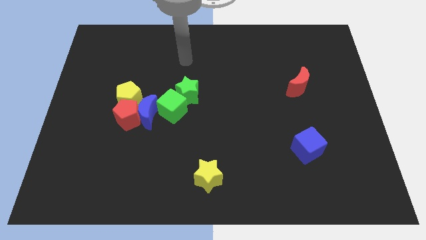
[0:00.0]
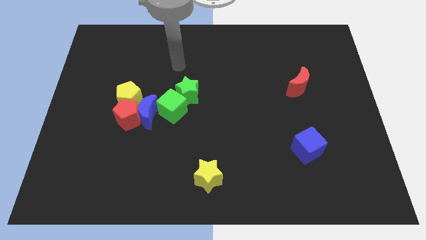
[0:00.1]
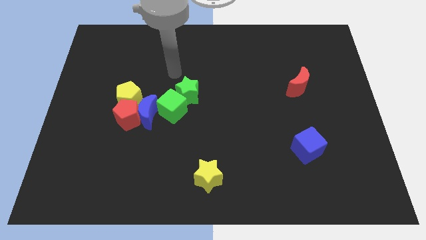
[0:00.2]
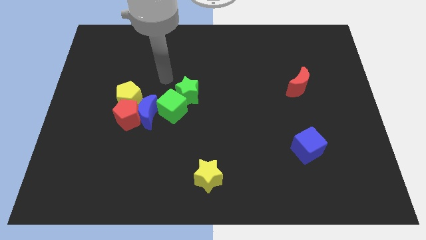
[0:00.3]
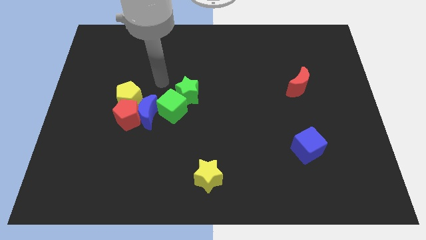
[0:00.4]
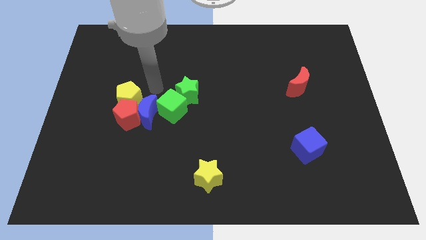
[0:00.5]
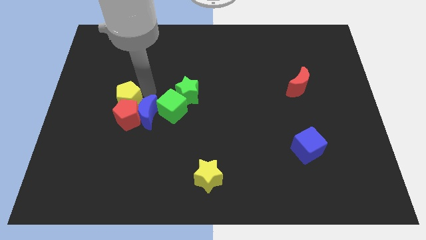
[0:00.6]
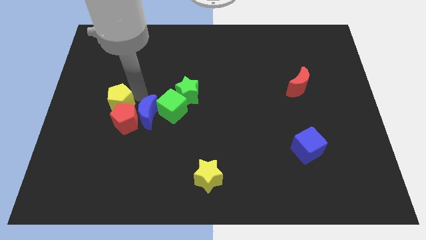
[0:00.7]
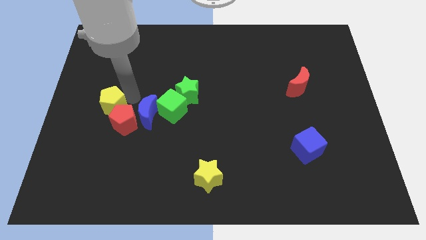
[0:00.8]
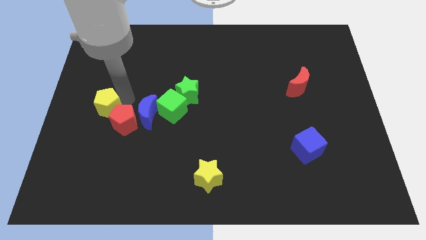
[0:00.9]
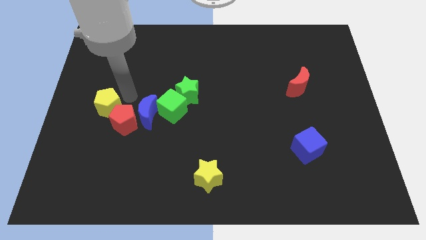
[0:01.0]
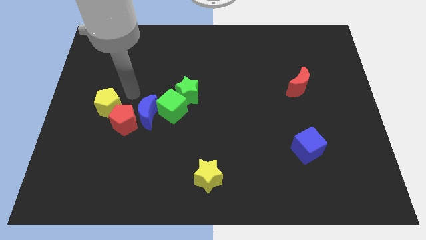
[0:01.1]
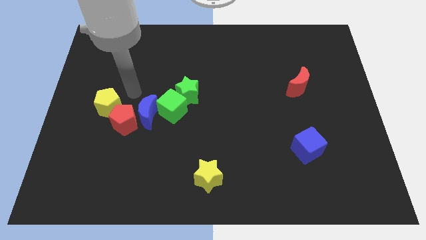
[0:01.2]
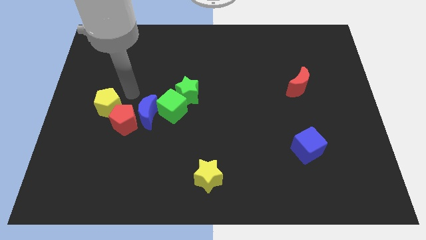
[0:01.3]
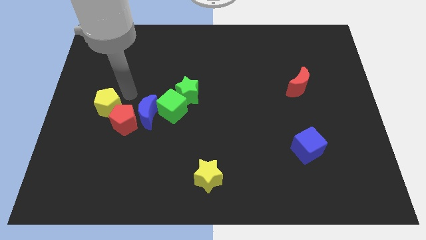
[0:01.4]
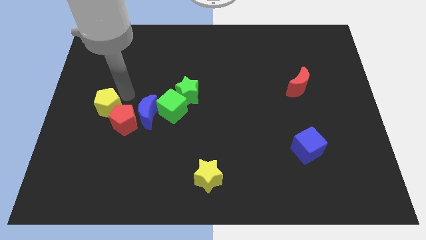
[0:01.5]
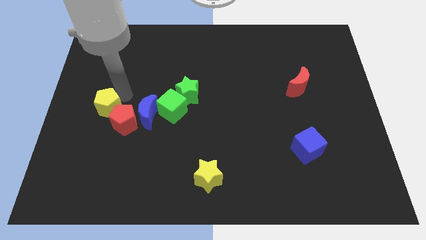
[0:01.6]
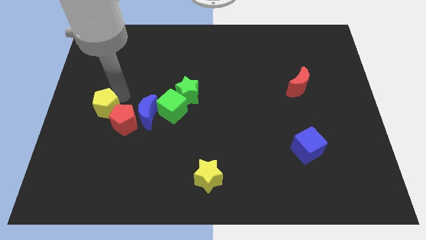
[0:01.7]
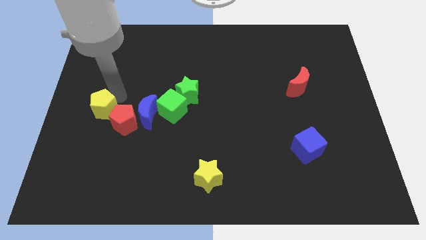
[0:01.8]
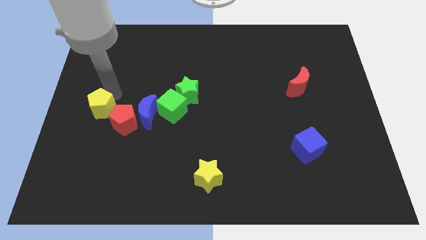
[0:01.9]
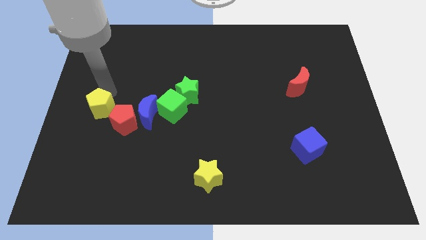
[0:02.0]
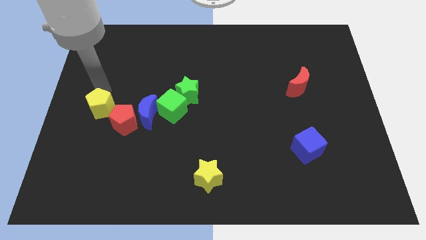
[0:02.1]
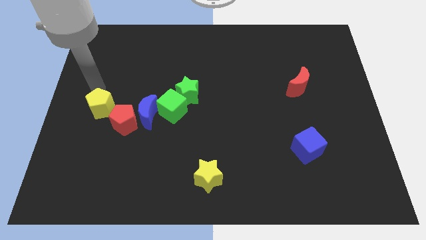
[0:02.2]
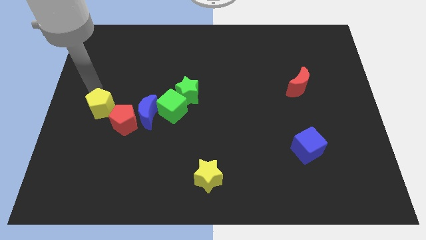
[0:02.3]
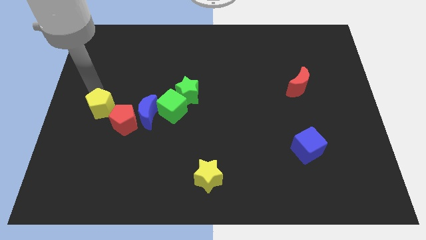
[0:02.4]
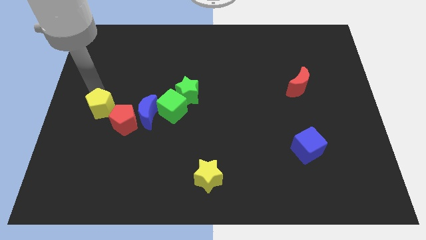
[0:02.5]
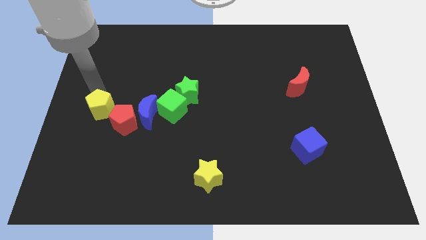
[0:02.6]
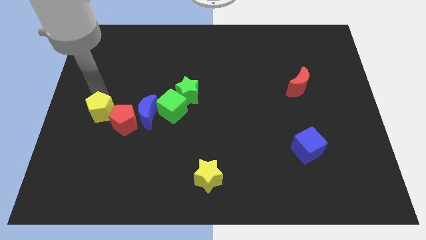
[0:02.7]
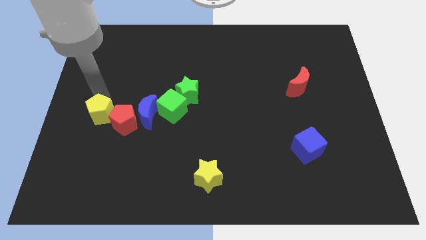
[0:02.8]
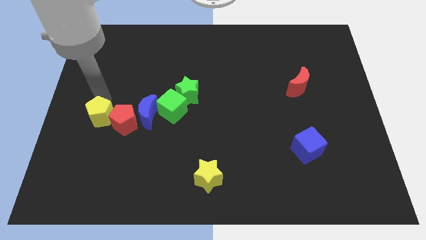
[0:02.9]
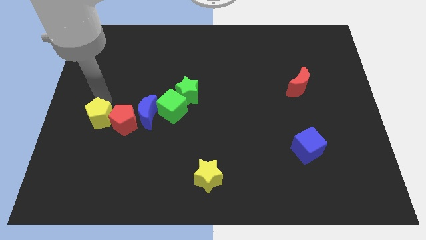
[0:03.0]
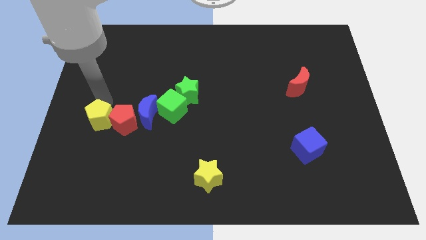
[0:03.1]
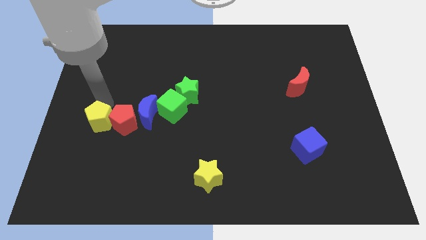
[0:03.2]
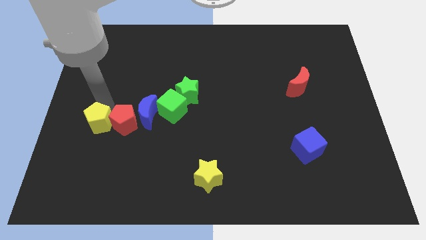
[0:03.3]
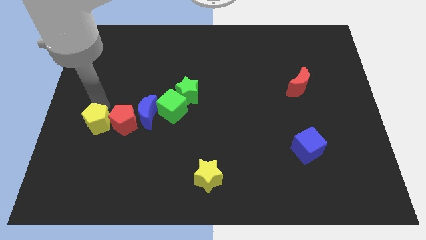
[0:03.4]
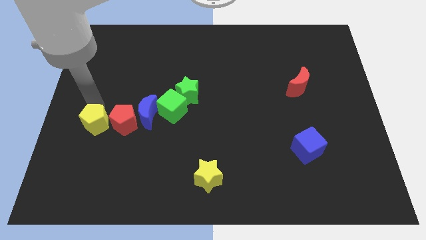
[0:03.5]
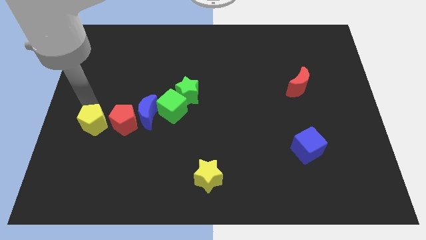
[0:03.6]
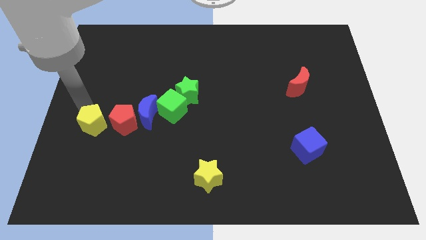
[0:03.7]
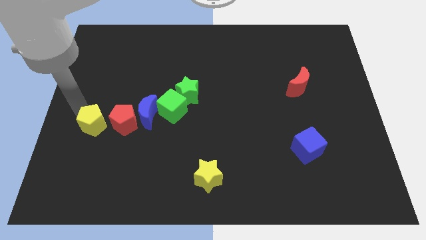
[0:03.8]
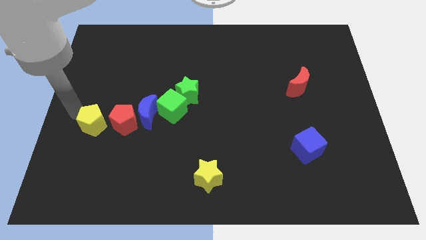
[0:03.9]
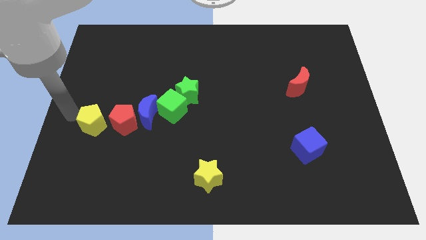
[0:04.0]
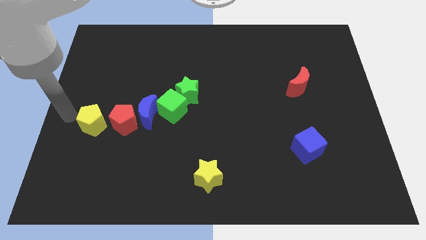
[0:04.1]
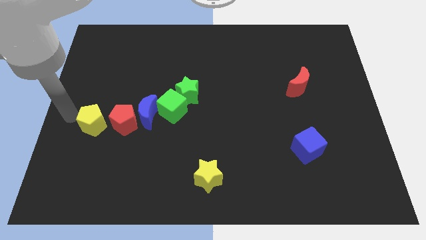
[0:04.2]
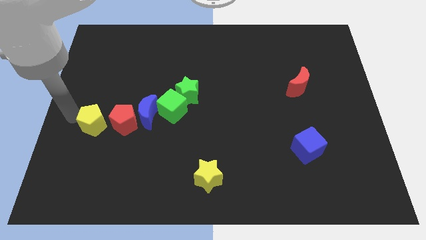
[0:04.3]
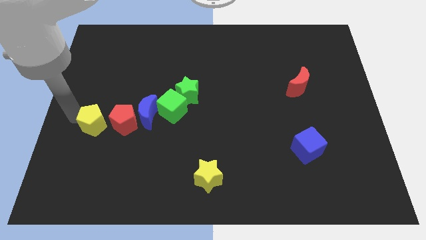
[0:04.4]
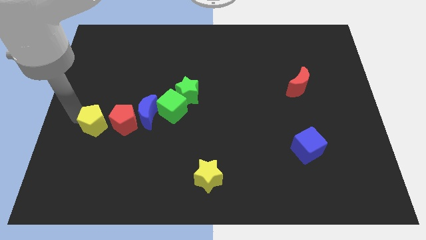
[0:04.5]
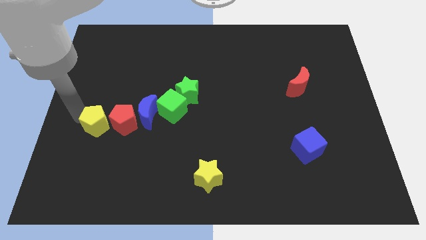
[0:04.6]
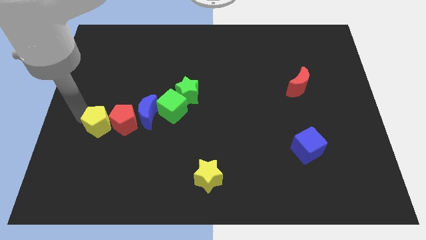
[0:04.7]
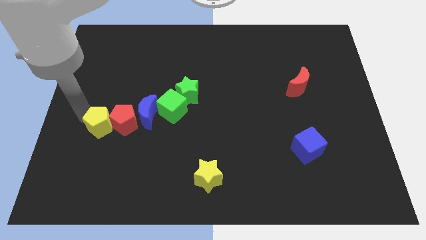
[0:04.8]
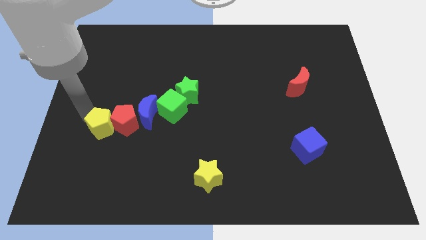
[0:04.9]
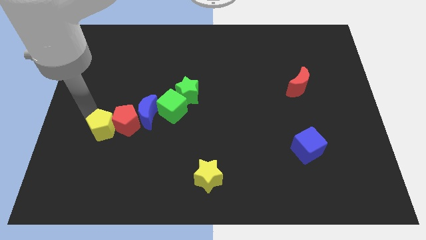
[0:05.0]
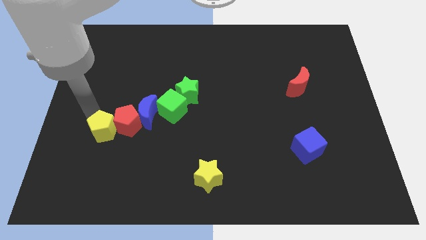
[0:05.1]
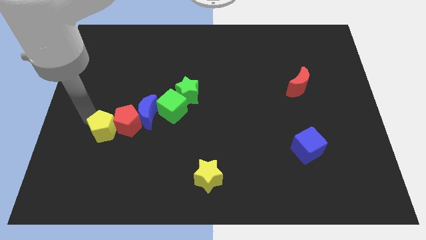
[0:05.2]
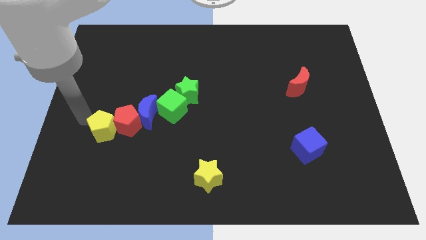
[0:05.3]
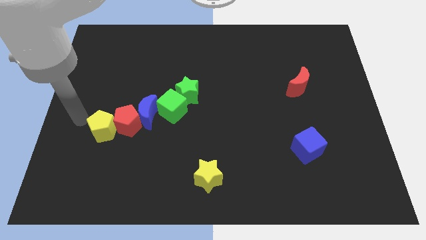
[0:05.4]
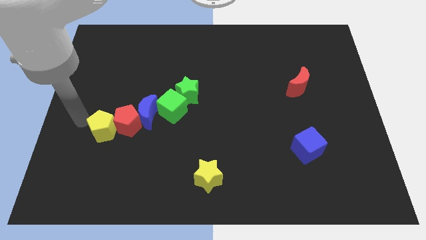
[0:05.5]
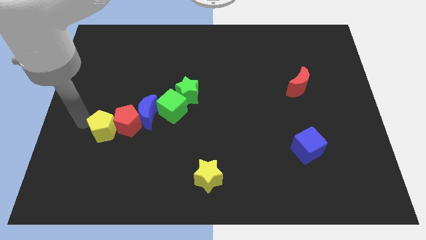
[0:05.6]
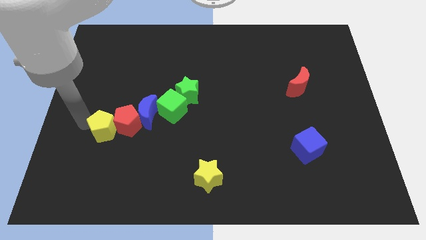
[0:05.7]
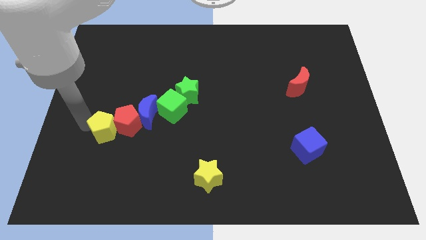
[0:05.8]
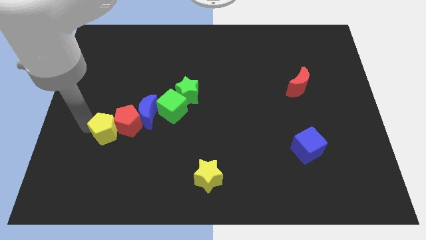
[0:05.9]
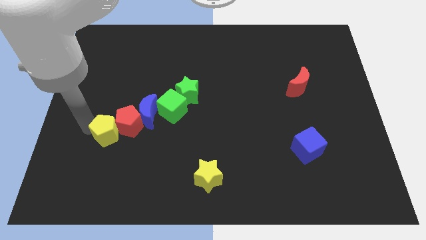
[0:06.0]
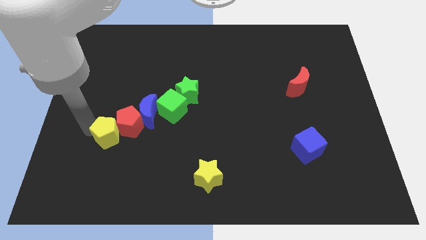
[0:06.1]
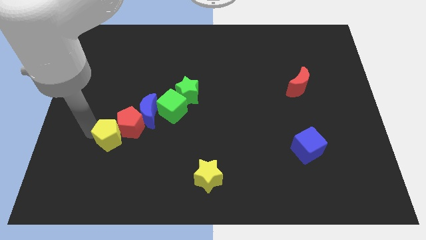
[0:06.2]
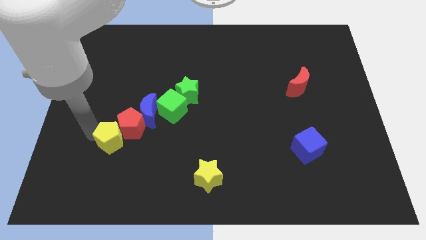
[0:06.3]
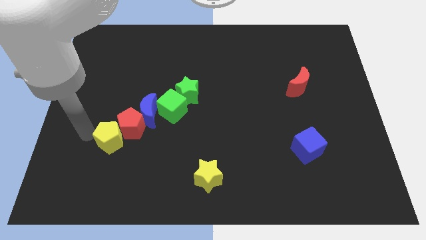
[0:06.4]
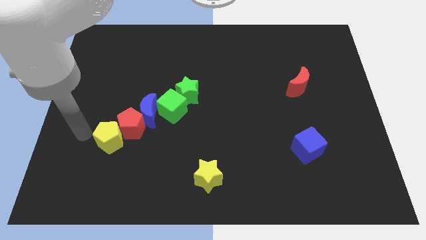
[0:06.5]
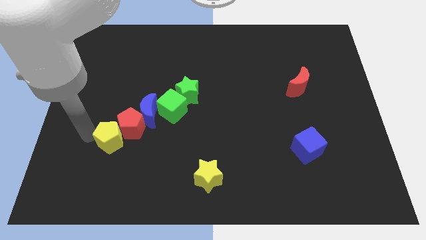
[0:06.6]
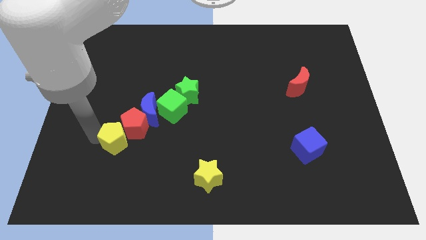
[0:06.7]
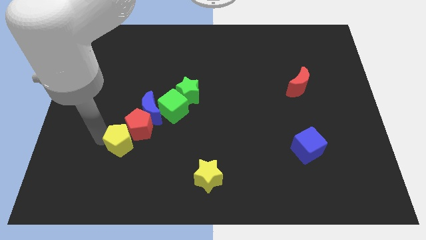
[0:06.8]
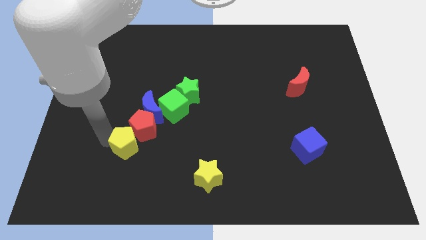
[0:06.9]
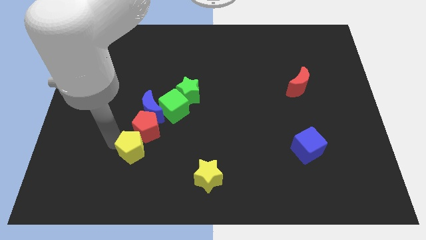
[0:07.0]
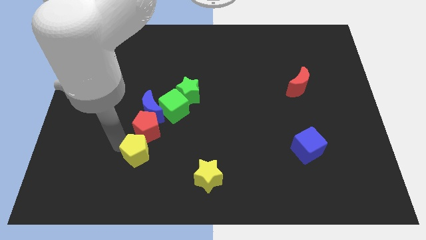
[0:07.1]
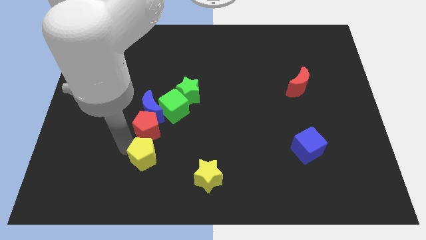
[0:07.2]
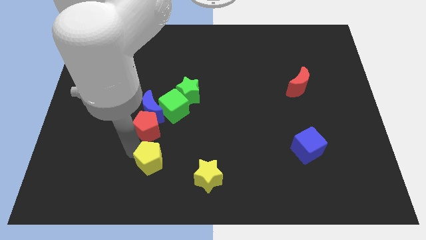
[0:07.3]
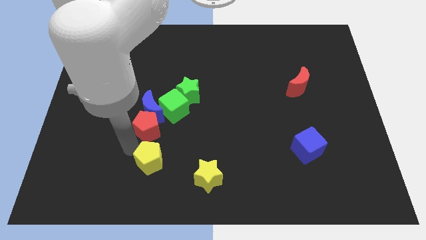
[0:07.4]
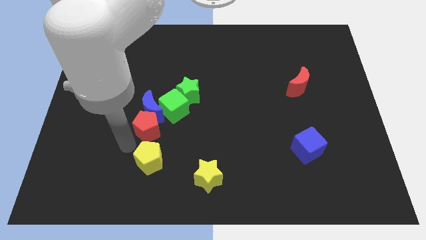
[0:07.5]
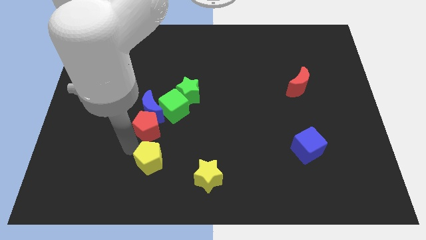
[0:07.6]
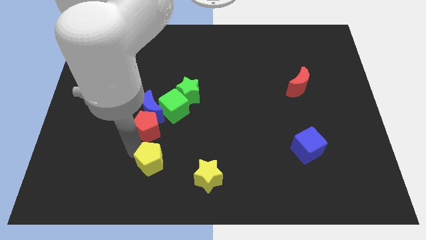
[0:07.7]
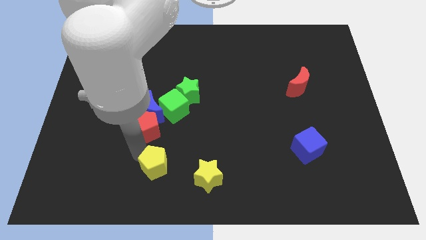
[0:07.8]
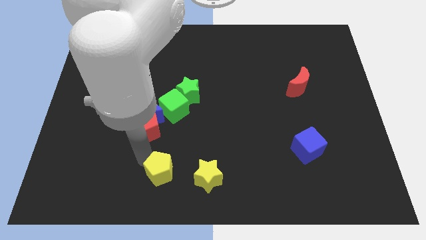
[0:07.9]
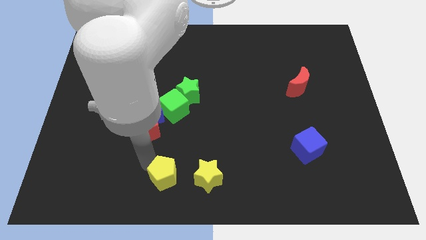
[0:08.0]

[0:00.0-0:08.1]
slide the yellow pentagon to the bottom side
